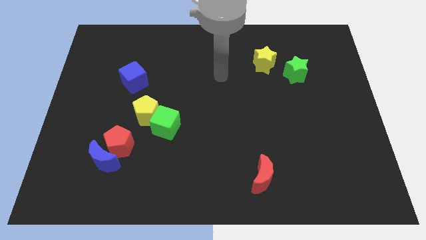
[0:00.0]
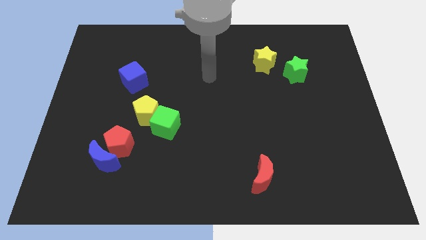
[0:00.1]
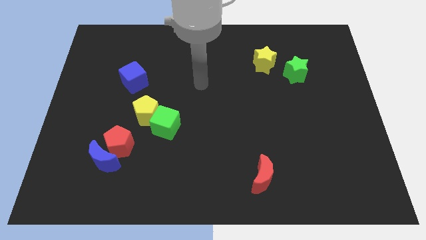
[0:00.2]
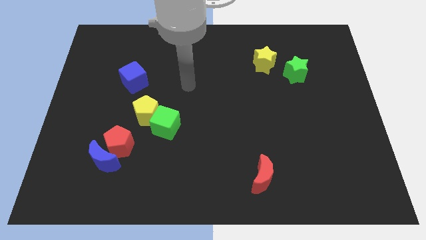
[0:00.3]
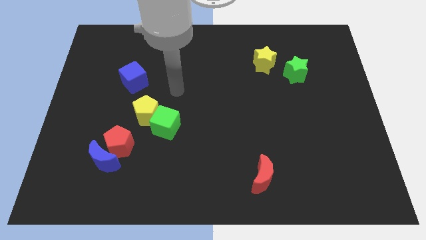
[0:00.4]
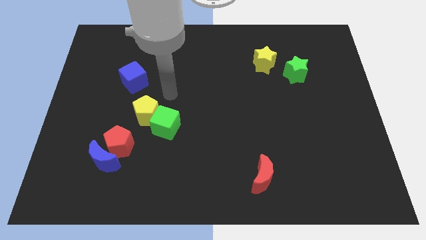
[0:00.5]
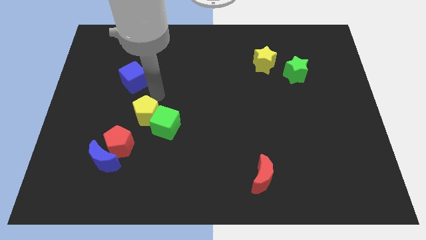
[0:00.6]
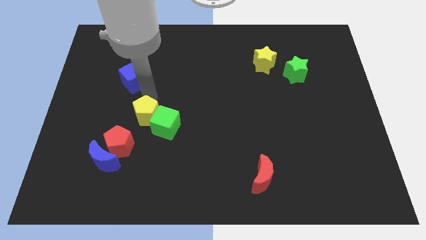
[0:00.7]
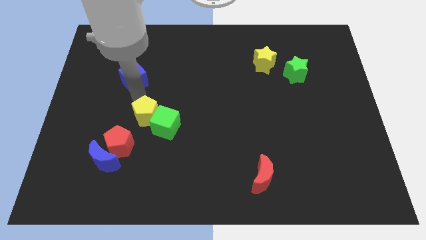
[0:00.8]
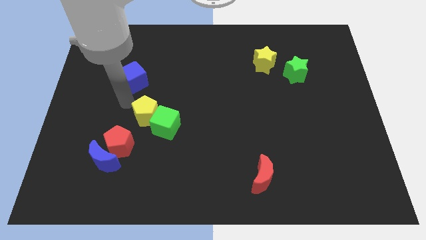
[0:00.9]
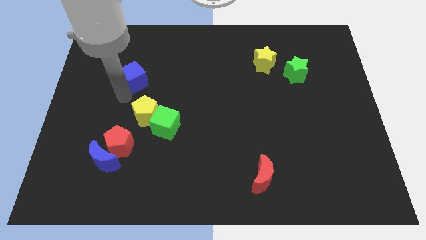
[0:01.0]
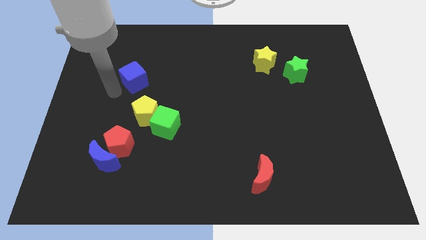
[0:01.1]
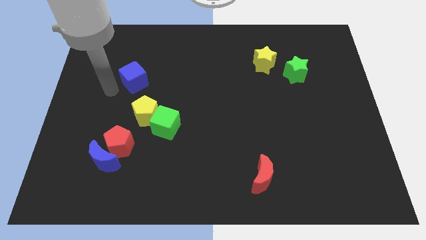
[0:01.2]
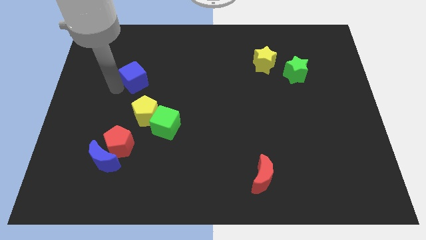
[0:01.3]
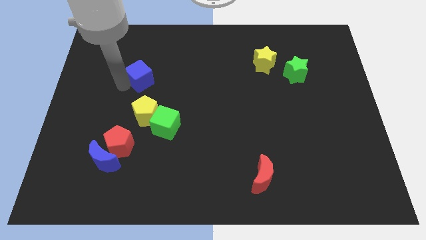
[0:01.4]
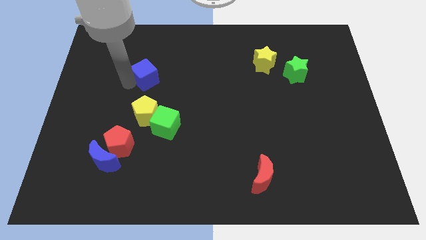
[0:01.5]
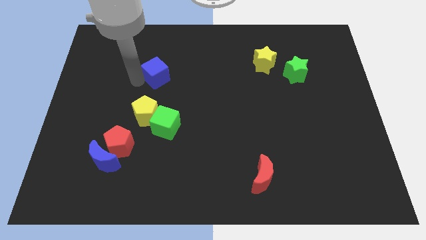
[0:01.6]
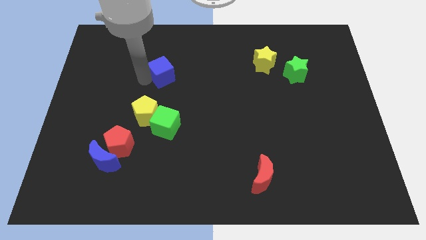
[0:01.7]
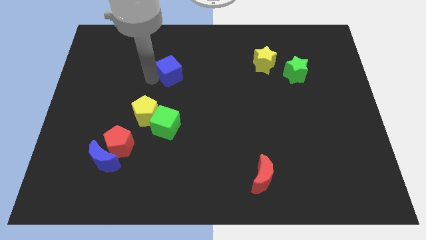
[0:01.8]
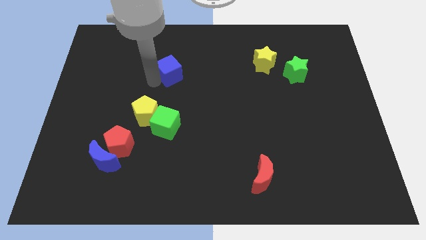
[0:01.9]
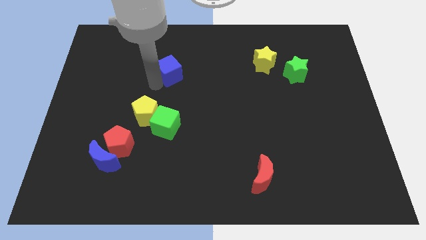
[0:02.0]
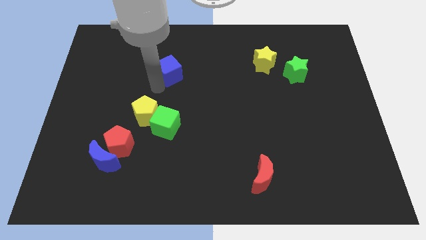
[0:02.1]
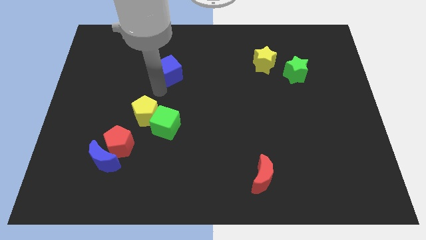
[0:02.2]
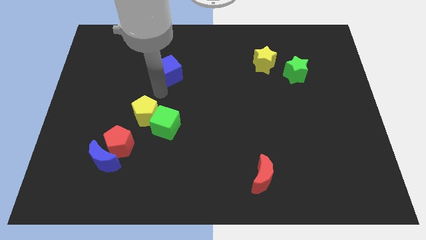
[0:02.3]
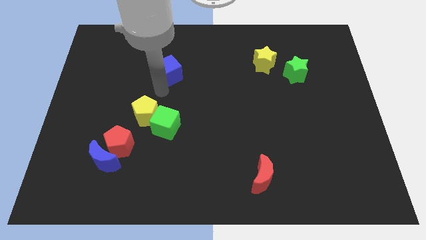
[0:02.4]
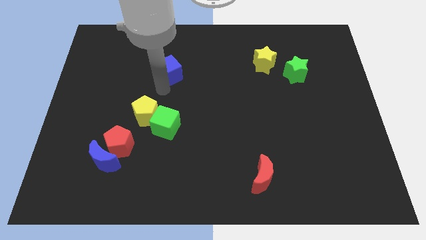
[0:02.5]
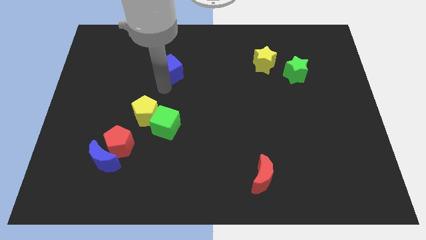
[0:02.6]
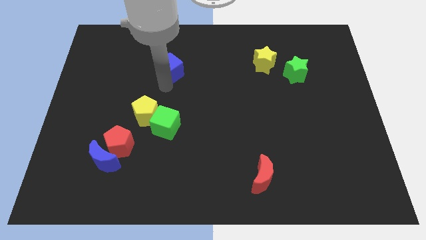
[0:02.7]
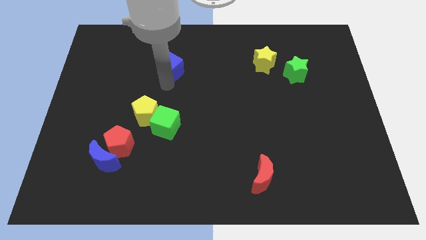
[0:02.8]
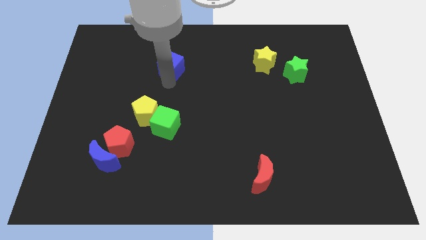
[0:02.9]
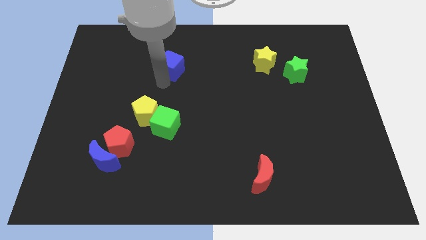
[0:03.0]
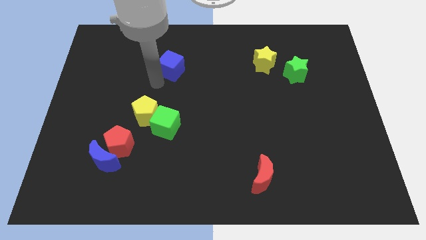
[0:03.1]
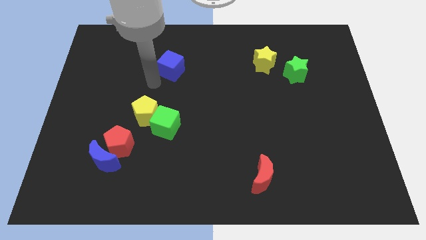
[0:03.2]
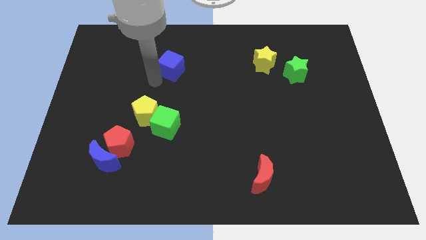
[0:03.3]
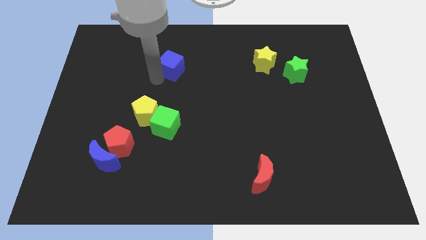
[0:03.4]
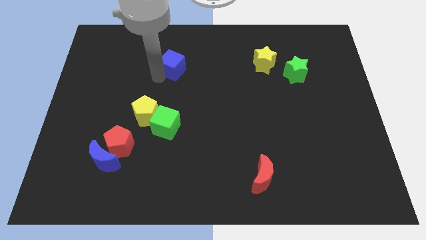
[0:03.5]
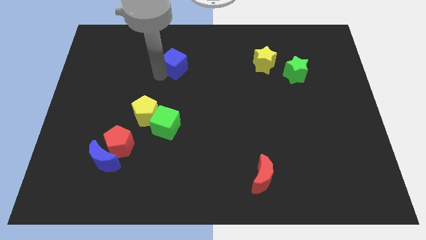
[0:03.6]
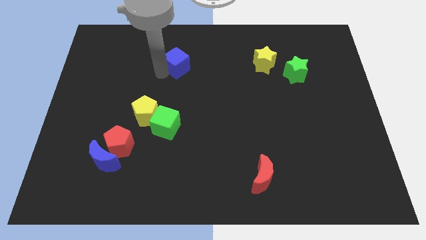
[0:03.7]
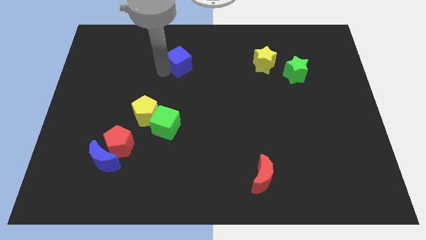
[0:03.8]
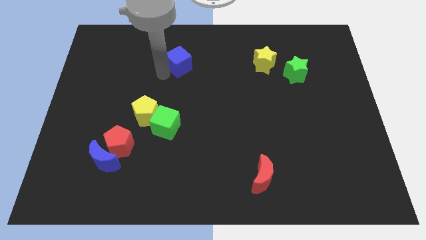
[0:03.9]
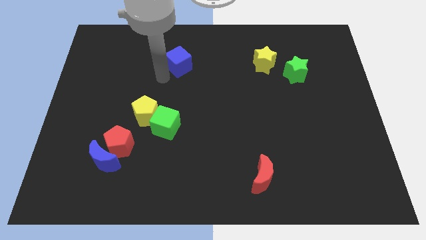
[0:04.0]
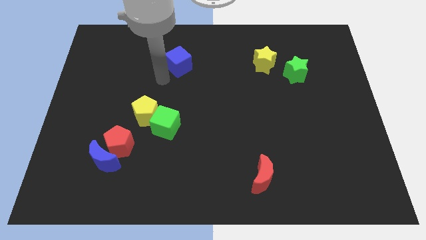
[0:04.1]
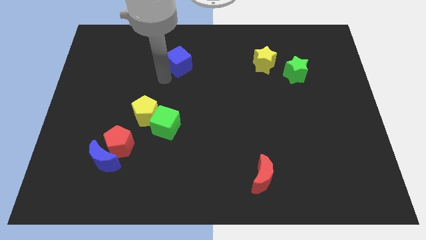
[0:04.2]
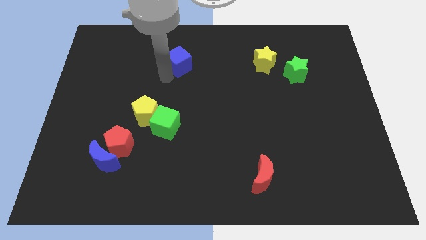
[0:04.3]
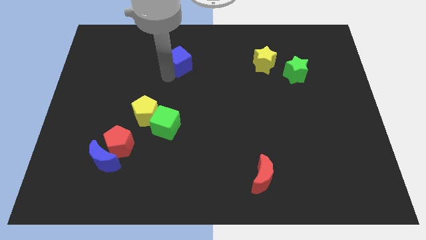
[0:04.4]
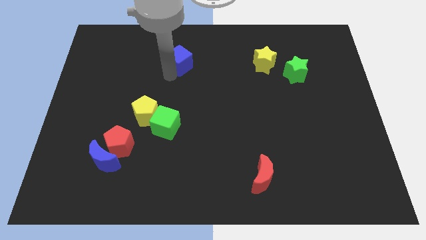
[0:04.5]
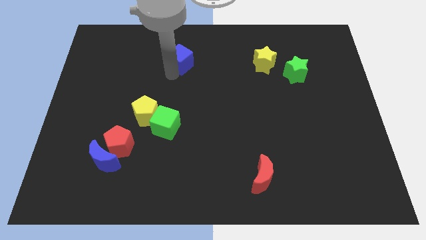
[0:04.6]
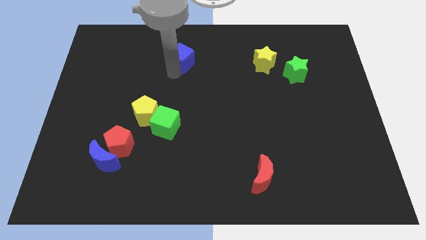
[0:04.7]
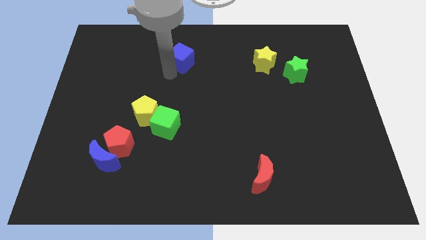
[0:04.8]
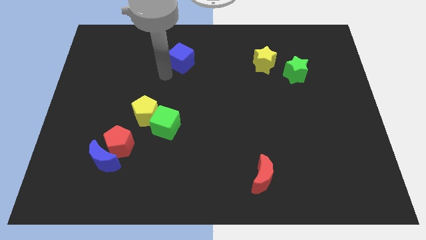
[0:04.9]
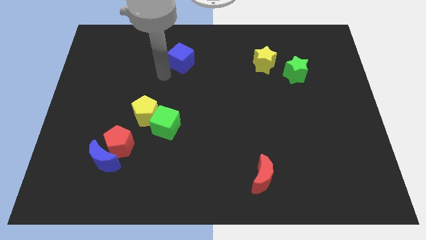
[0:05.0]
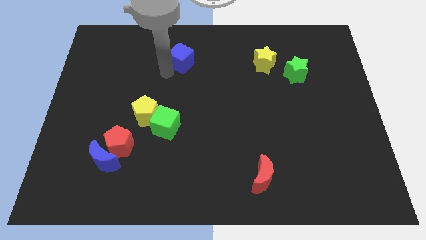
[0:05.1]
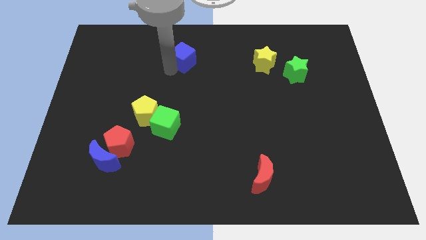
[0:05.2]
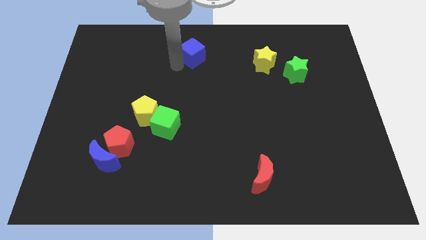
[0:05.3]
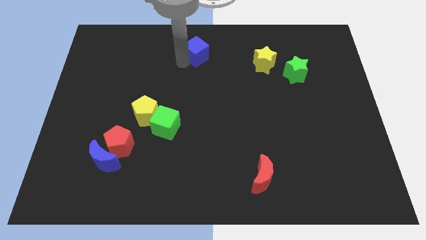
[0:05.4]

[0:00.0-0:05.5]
move the blue cube to the towards your base

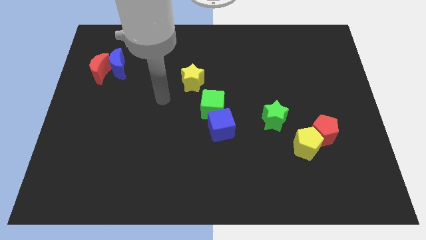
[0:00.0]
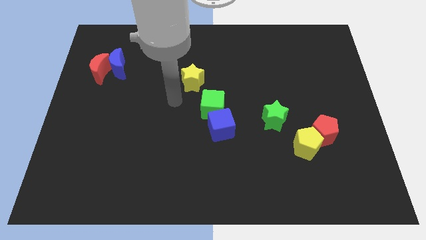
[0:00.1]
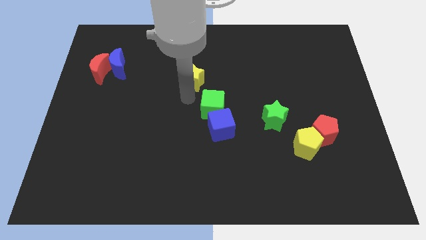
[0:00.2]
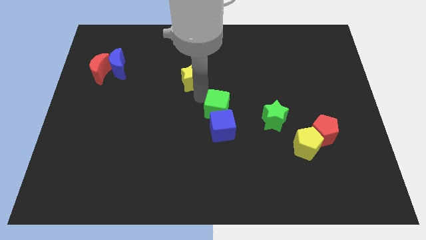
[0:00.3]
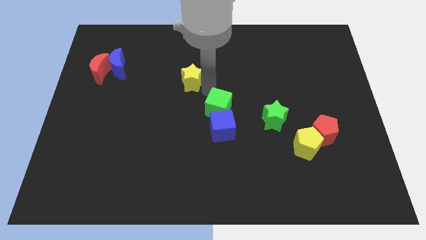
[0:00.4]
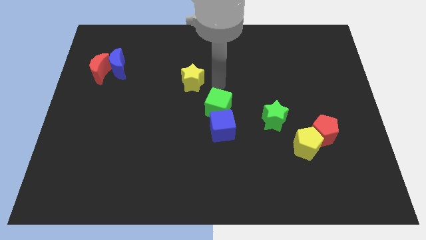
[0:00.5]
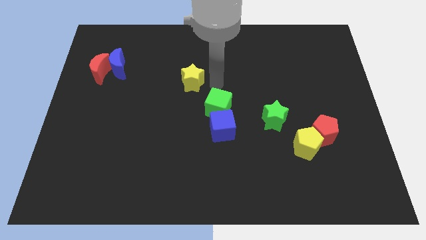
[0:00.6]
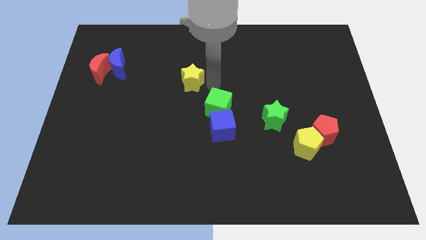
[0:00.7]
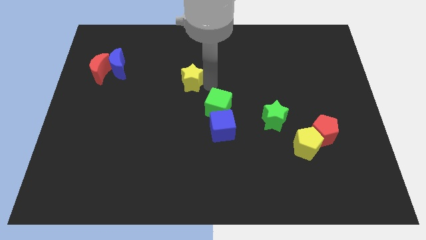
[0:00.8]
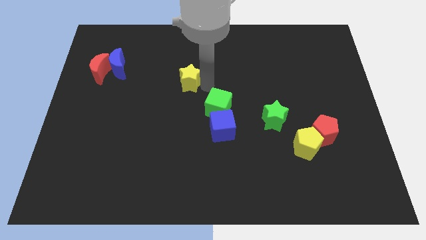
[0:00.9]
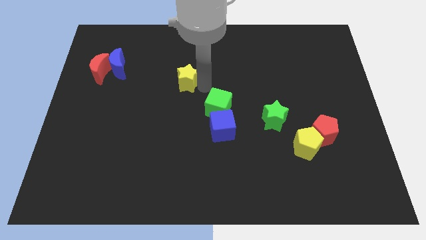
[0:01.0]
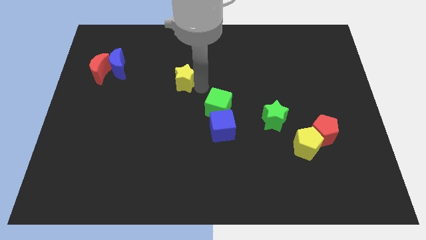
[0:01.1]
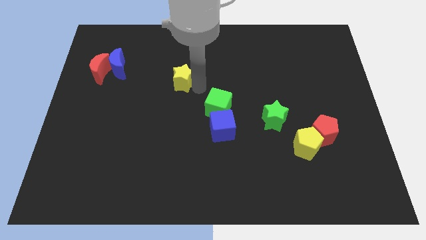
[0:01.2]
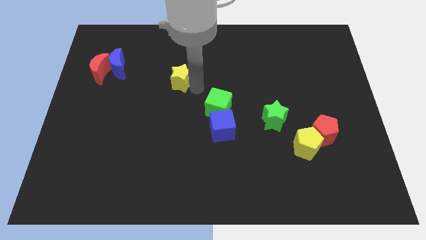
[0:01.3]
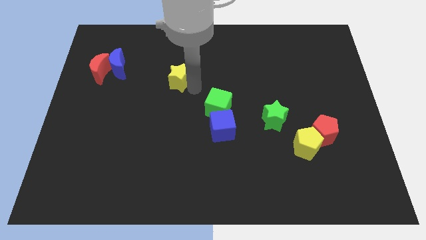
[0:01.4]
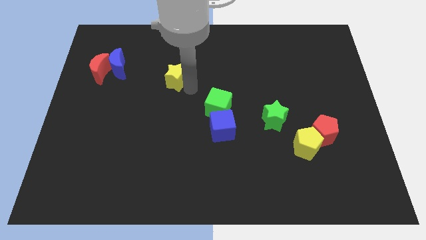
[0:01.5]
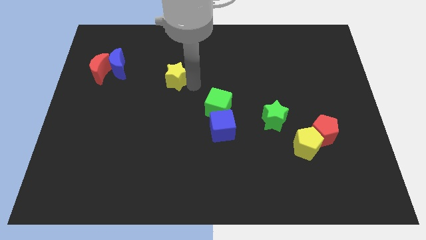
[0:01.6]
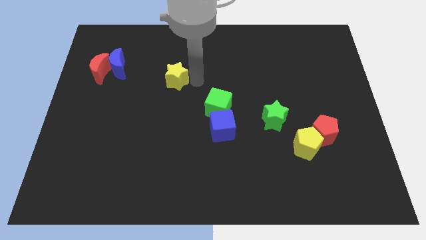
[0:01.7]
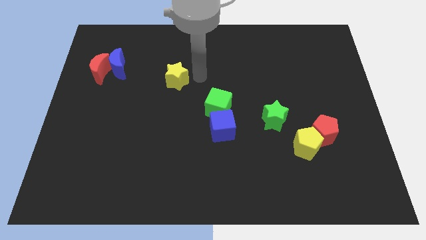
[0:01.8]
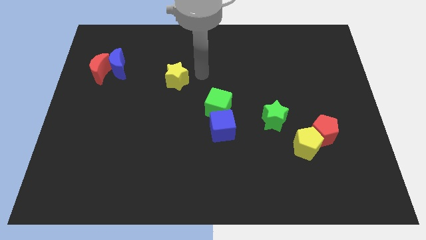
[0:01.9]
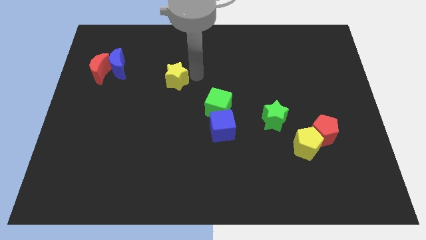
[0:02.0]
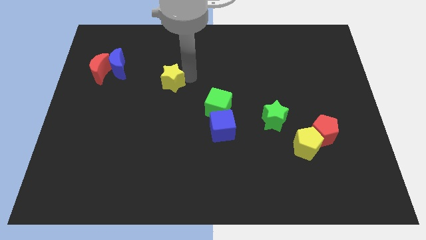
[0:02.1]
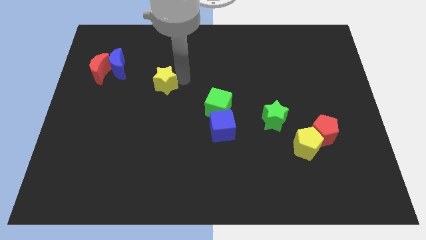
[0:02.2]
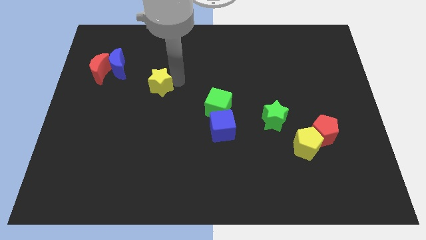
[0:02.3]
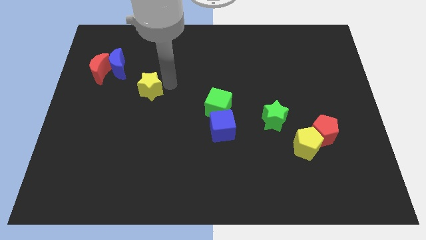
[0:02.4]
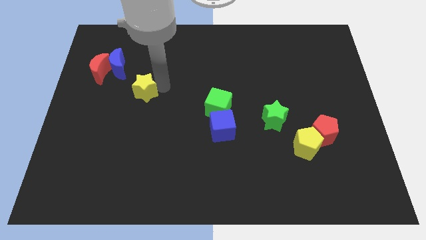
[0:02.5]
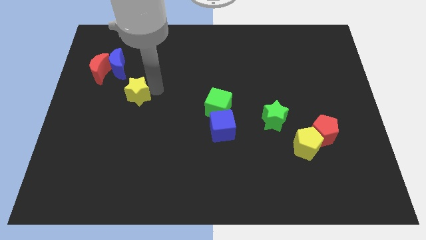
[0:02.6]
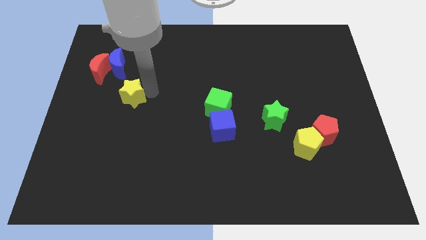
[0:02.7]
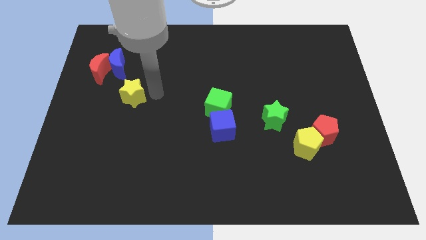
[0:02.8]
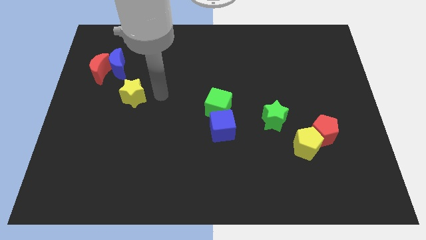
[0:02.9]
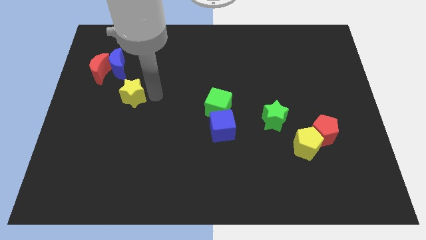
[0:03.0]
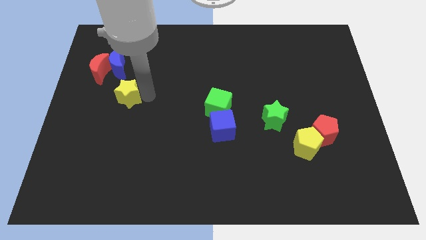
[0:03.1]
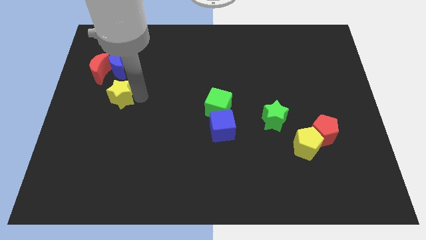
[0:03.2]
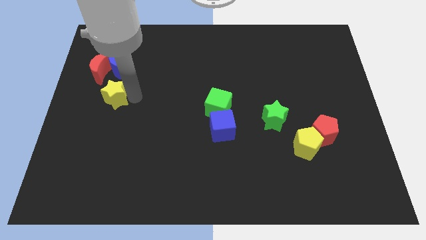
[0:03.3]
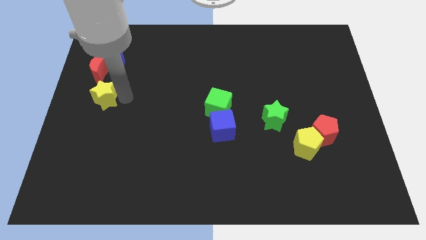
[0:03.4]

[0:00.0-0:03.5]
move the yellow star to the left side of the board
